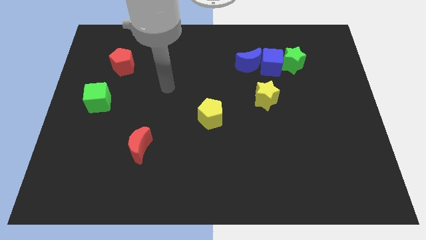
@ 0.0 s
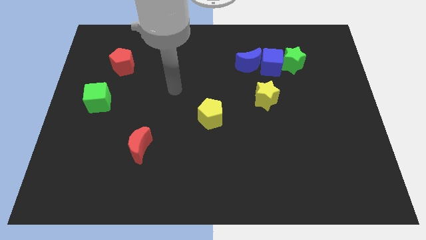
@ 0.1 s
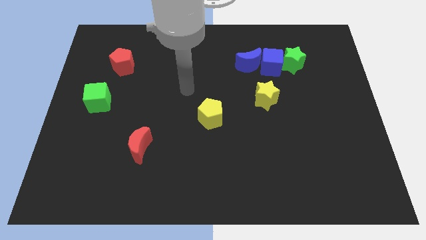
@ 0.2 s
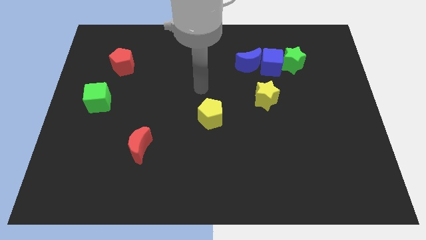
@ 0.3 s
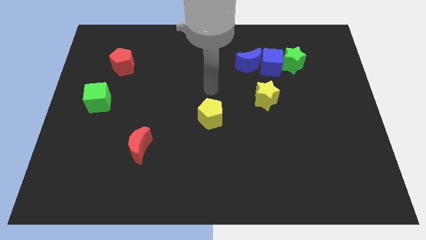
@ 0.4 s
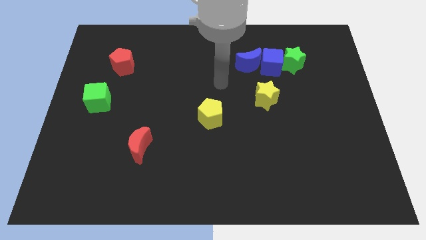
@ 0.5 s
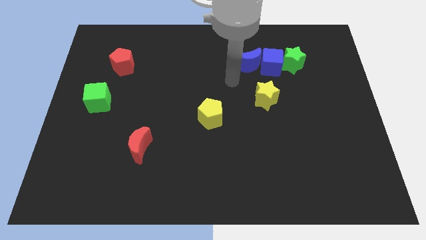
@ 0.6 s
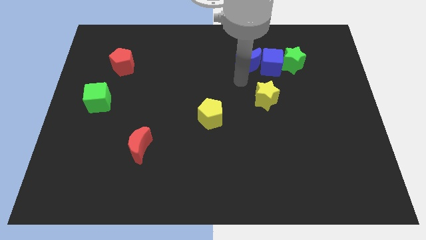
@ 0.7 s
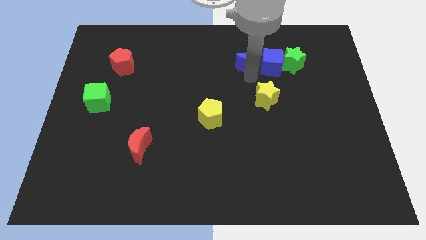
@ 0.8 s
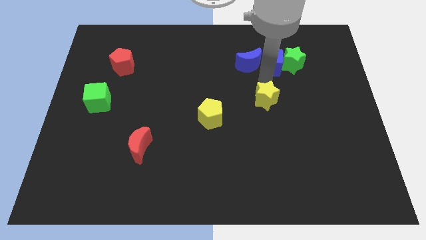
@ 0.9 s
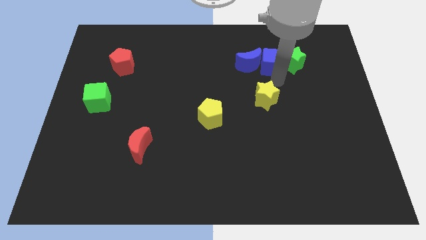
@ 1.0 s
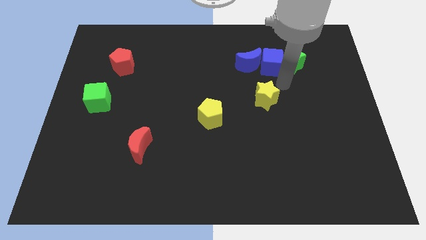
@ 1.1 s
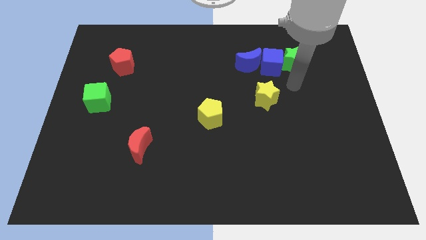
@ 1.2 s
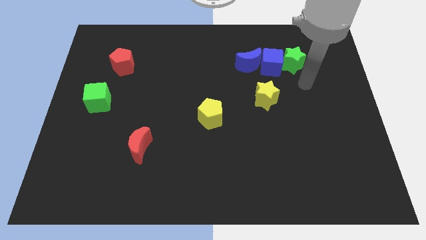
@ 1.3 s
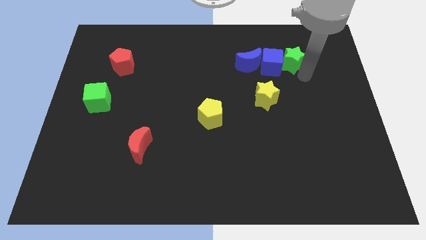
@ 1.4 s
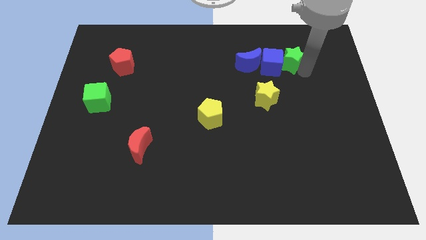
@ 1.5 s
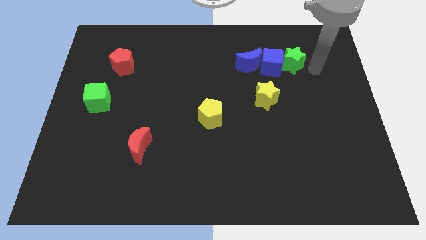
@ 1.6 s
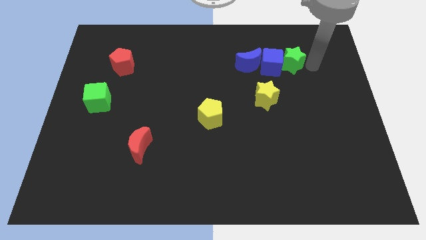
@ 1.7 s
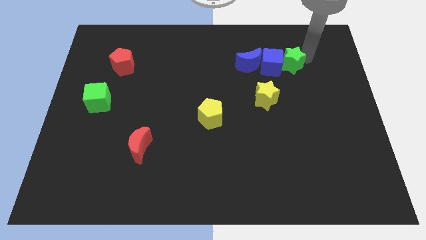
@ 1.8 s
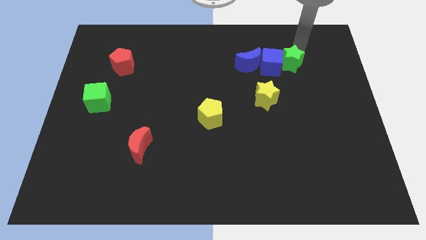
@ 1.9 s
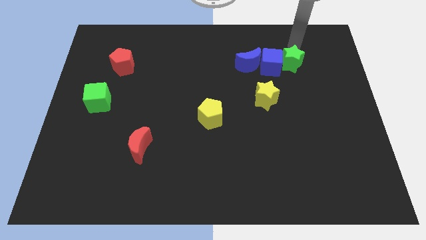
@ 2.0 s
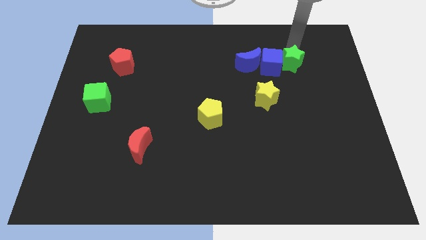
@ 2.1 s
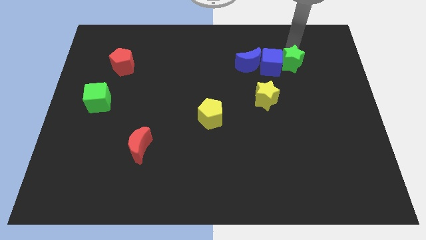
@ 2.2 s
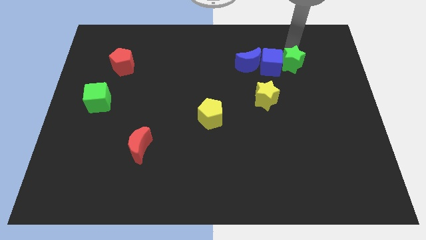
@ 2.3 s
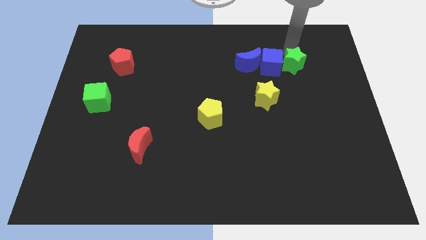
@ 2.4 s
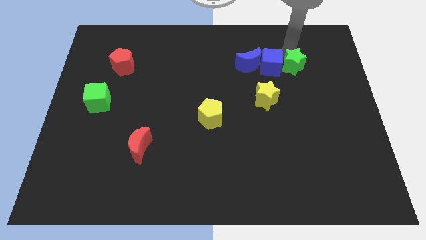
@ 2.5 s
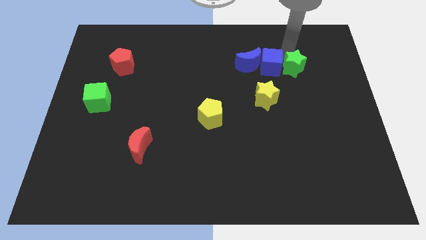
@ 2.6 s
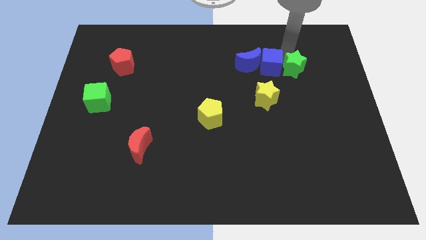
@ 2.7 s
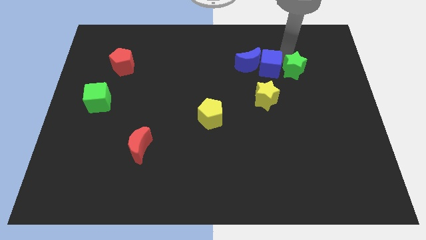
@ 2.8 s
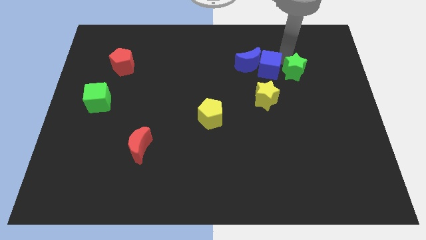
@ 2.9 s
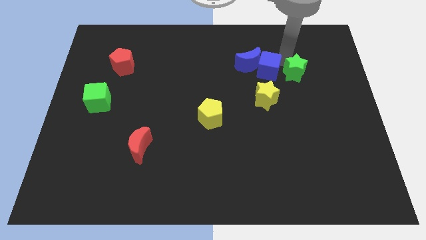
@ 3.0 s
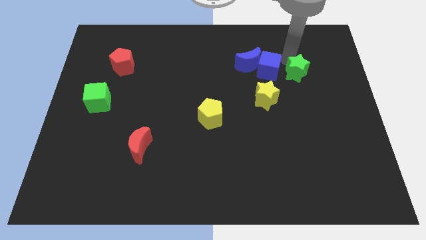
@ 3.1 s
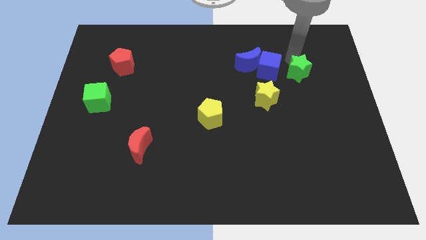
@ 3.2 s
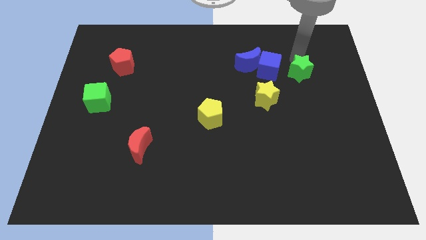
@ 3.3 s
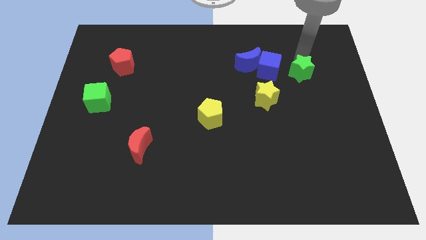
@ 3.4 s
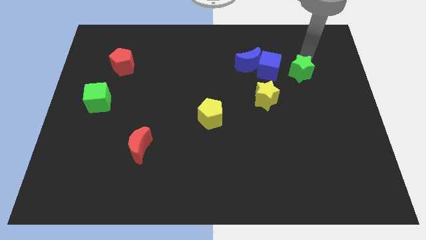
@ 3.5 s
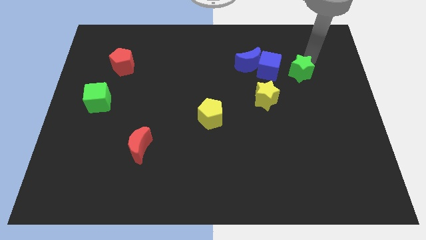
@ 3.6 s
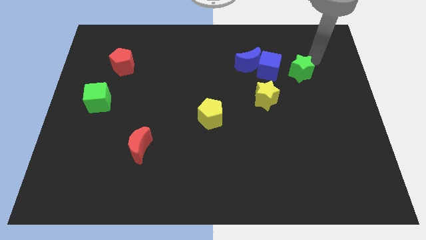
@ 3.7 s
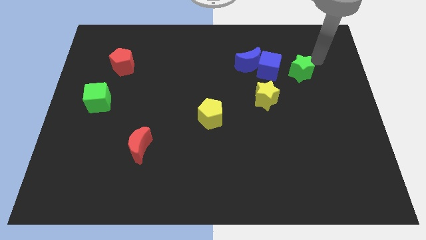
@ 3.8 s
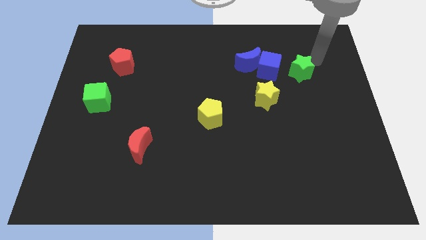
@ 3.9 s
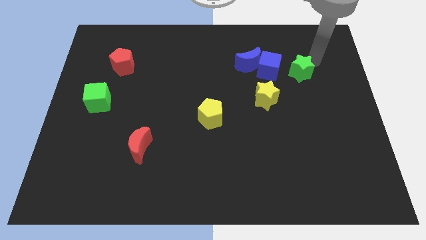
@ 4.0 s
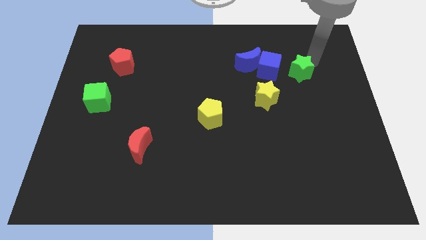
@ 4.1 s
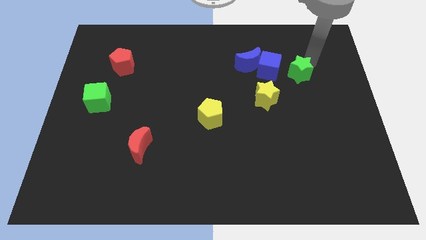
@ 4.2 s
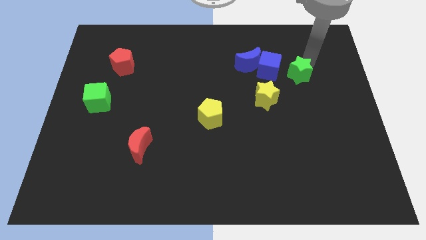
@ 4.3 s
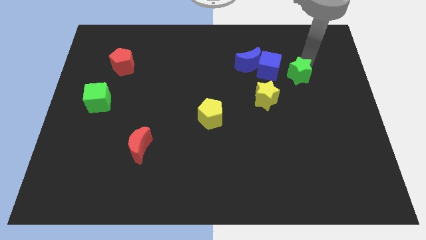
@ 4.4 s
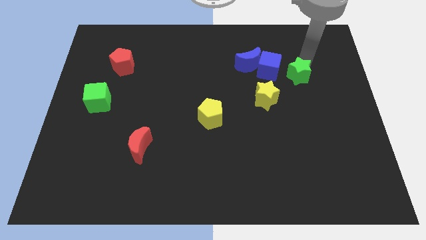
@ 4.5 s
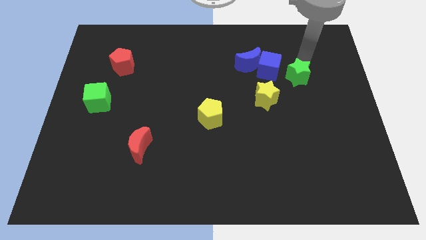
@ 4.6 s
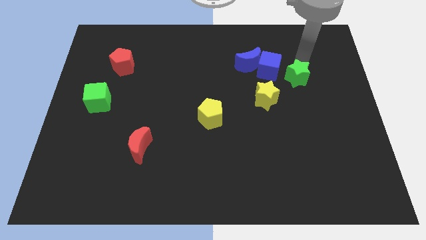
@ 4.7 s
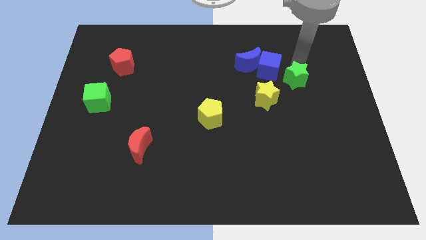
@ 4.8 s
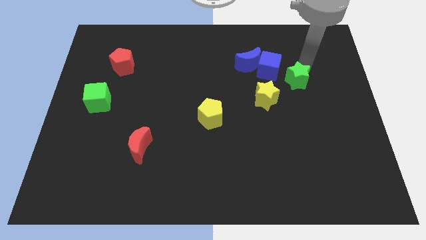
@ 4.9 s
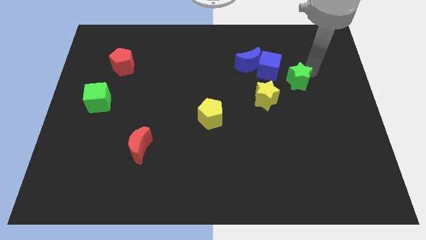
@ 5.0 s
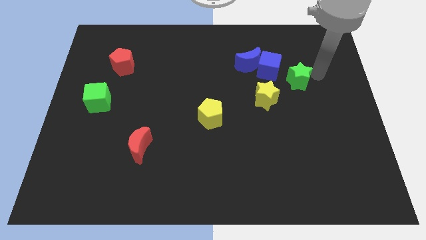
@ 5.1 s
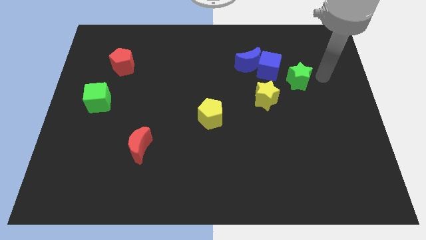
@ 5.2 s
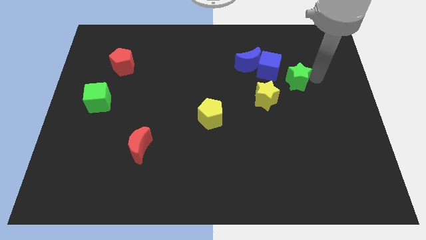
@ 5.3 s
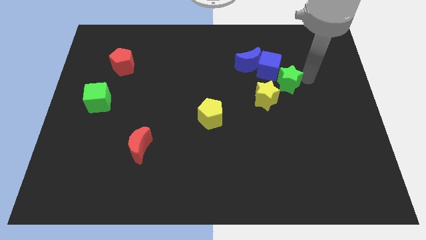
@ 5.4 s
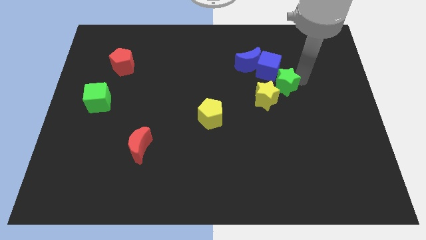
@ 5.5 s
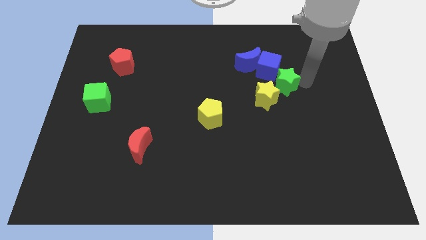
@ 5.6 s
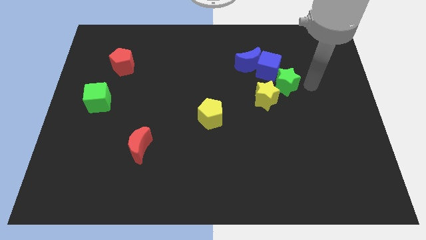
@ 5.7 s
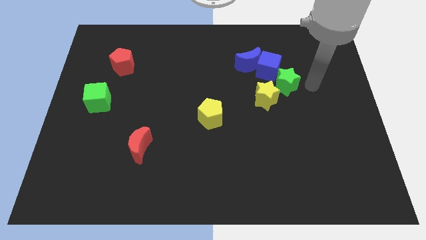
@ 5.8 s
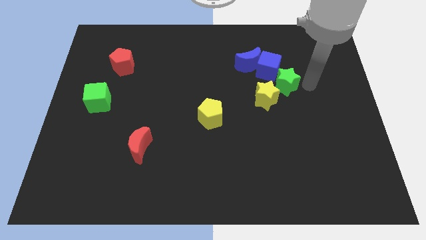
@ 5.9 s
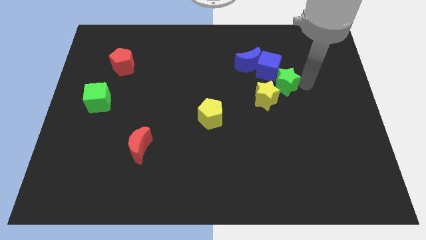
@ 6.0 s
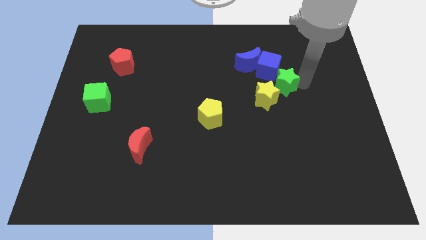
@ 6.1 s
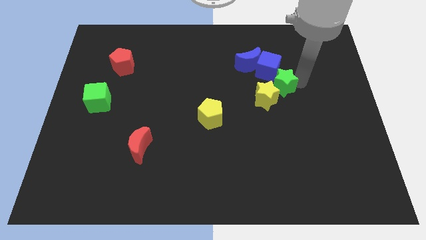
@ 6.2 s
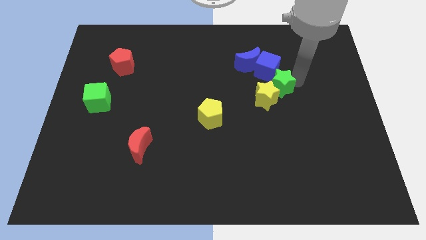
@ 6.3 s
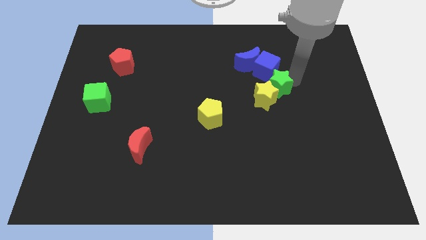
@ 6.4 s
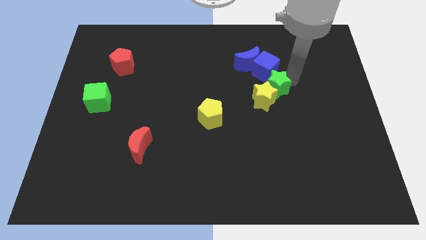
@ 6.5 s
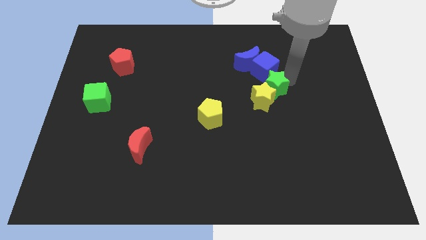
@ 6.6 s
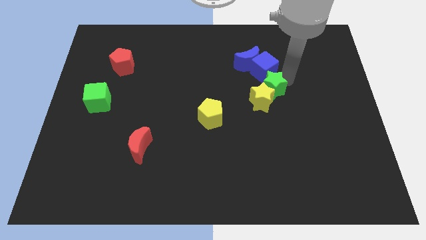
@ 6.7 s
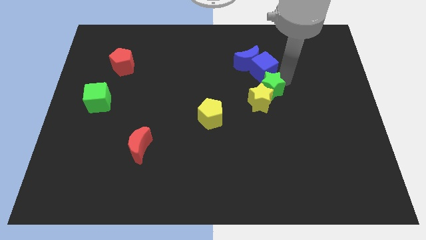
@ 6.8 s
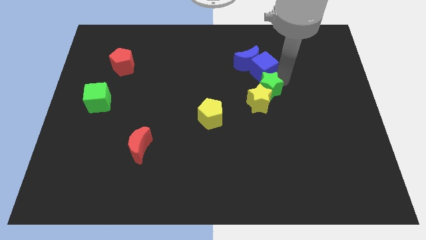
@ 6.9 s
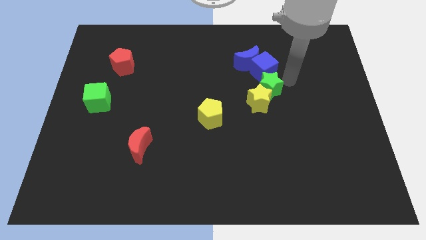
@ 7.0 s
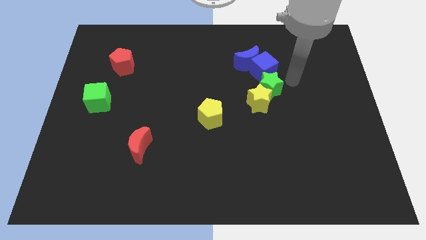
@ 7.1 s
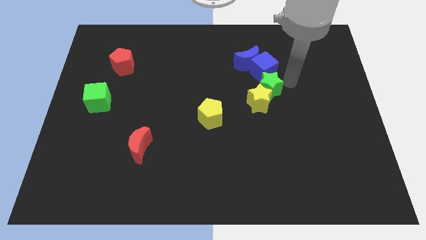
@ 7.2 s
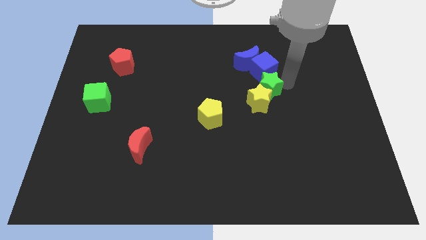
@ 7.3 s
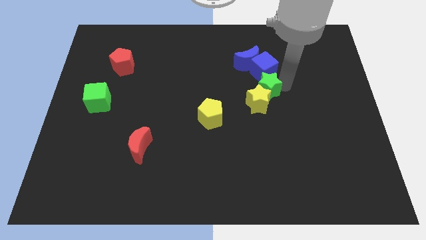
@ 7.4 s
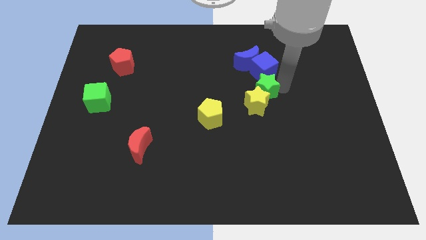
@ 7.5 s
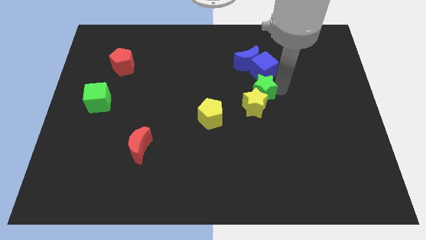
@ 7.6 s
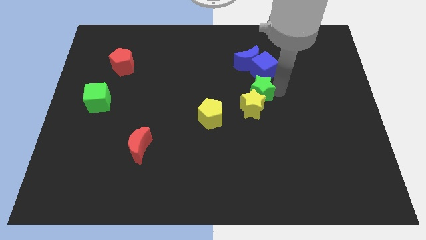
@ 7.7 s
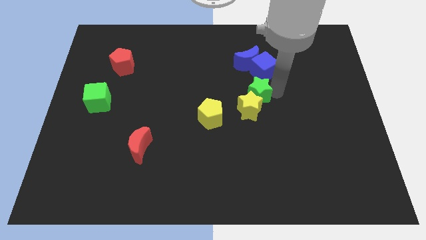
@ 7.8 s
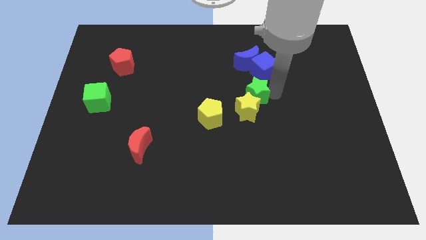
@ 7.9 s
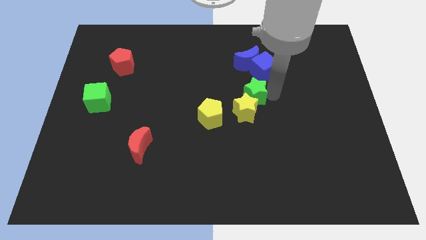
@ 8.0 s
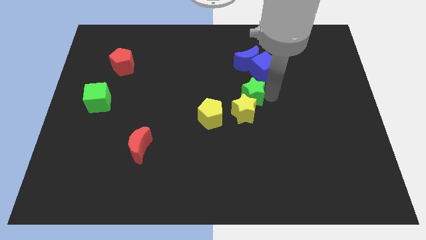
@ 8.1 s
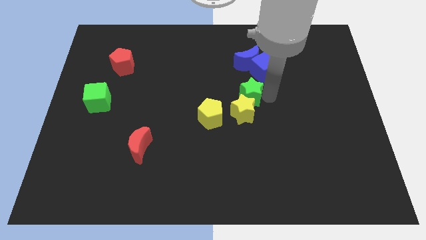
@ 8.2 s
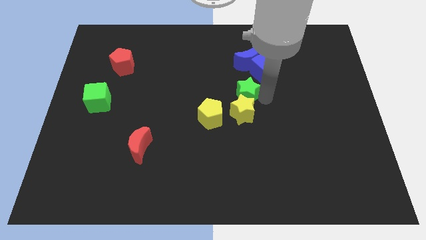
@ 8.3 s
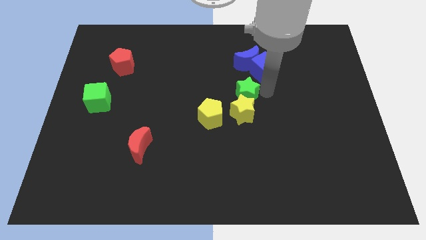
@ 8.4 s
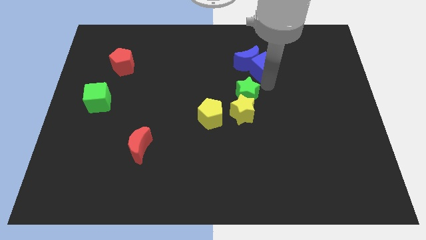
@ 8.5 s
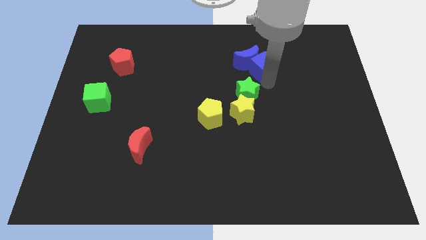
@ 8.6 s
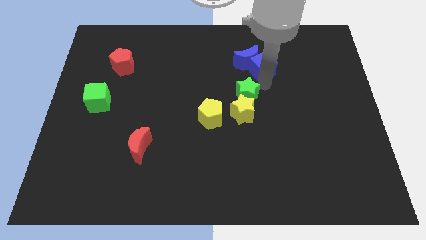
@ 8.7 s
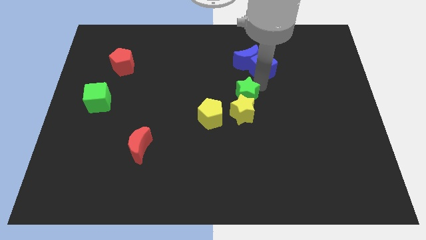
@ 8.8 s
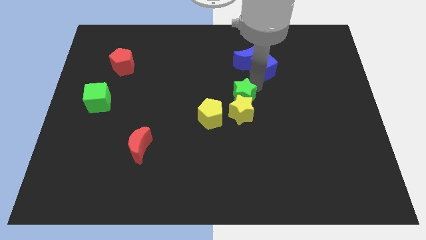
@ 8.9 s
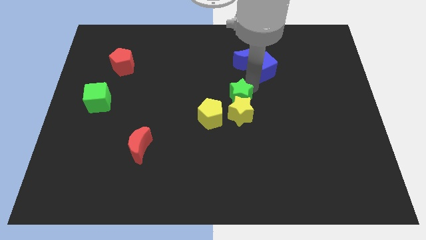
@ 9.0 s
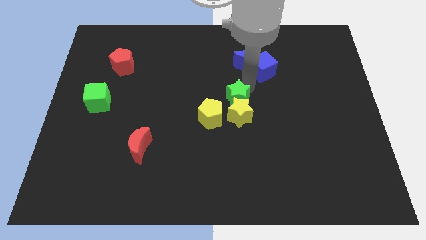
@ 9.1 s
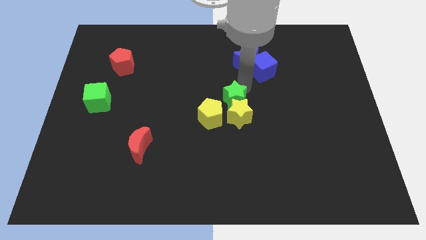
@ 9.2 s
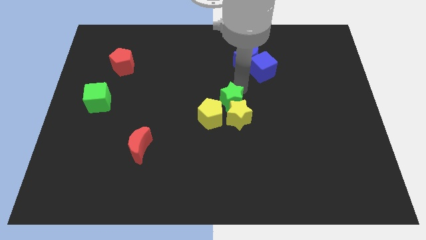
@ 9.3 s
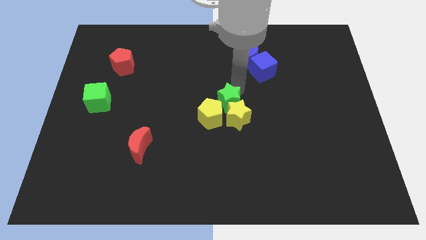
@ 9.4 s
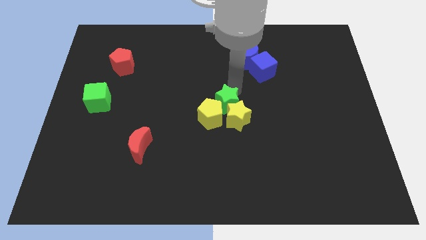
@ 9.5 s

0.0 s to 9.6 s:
slide the green star close to the yellow pentagon
